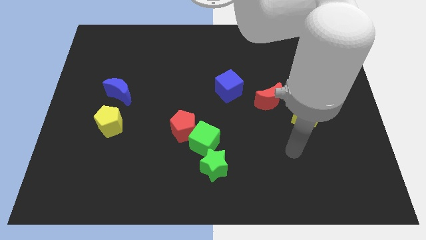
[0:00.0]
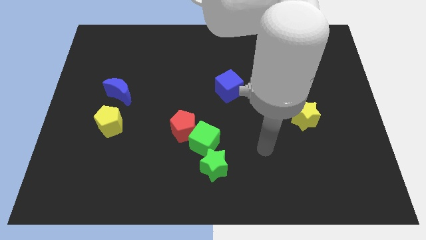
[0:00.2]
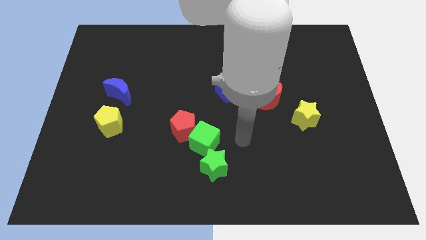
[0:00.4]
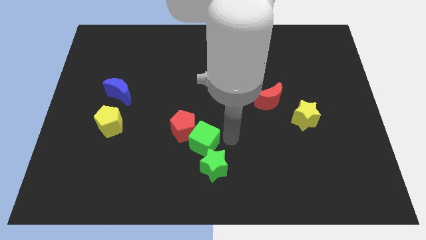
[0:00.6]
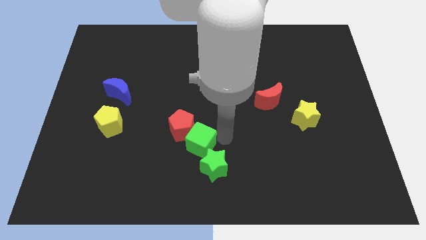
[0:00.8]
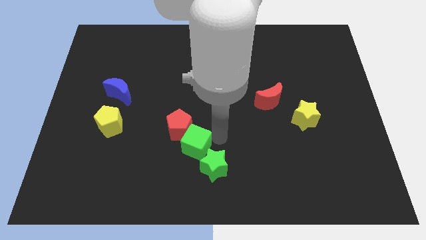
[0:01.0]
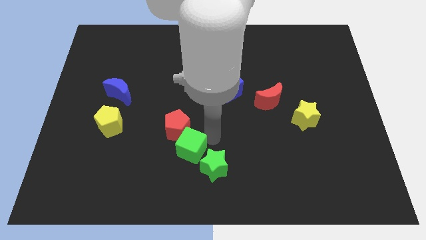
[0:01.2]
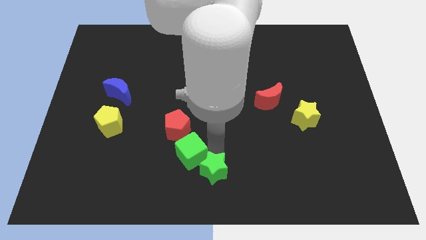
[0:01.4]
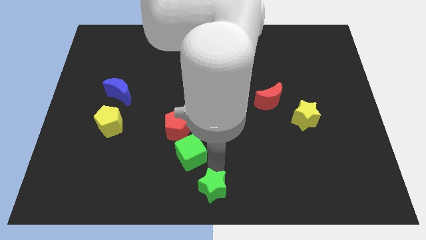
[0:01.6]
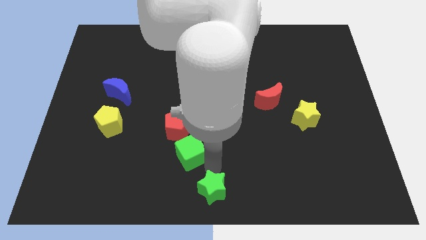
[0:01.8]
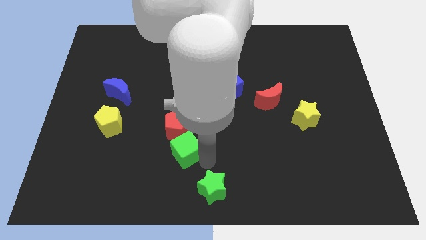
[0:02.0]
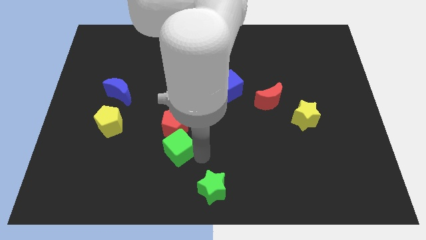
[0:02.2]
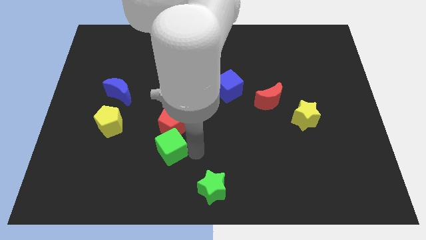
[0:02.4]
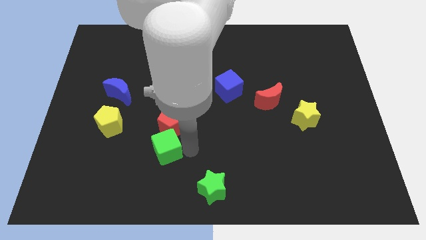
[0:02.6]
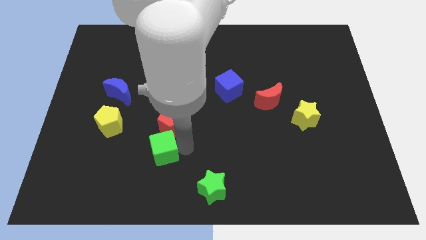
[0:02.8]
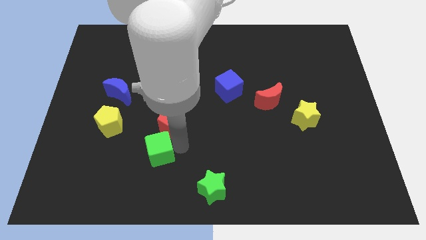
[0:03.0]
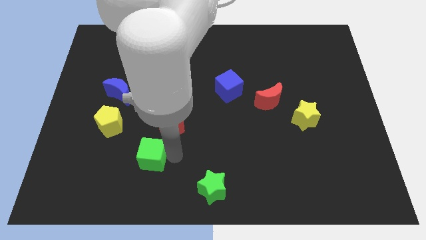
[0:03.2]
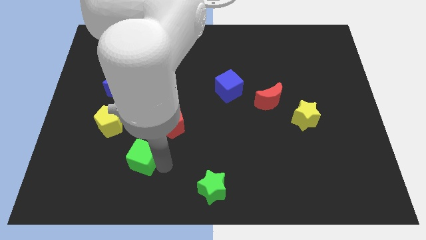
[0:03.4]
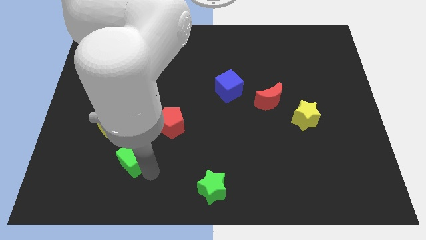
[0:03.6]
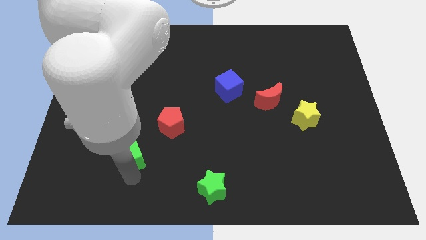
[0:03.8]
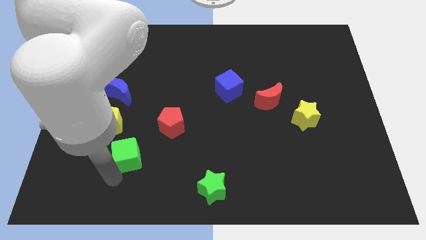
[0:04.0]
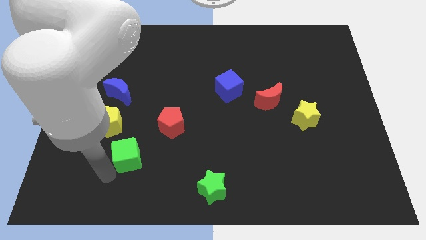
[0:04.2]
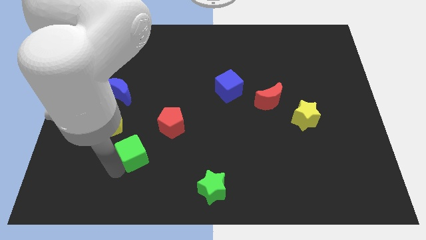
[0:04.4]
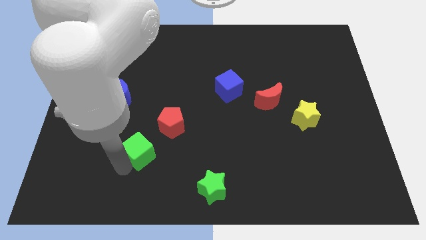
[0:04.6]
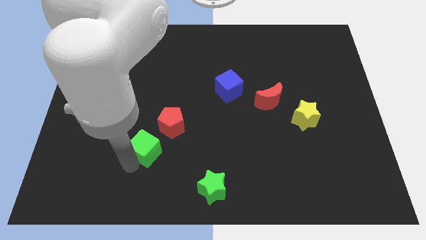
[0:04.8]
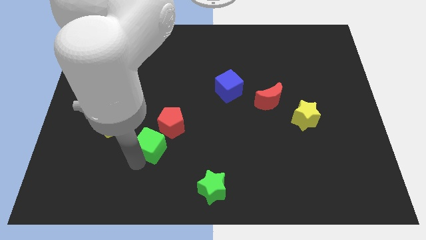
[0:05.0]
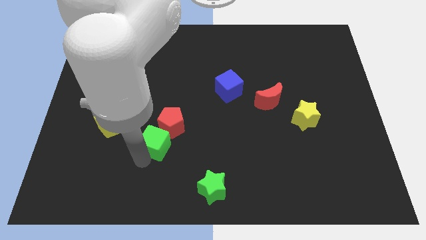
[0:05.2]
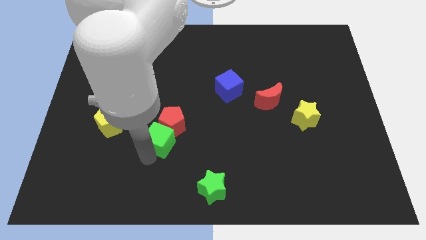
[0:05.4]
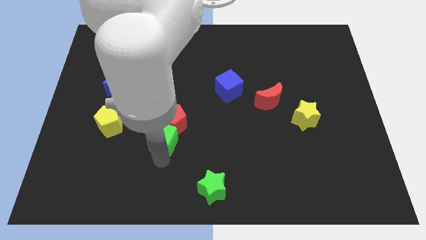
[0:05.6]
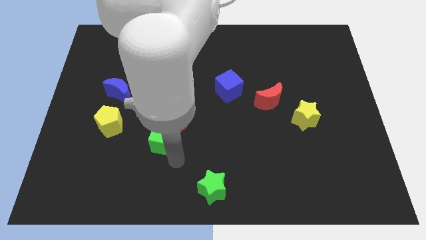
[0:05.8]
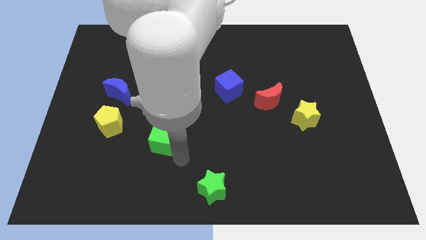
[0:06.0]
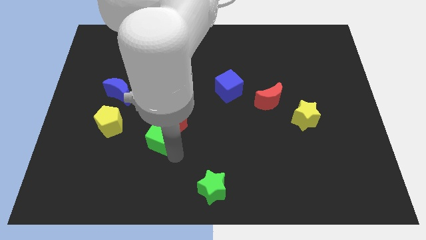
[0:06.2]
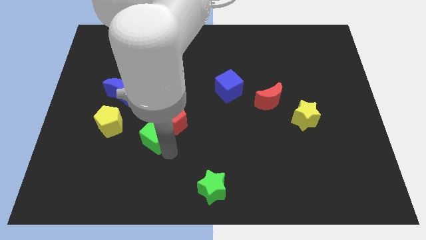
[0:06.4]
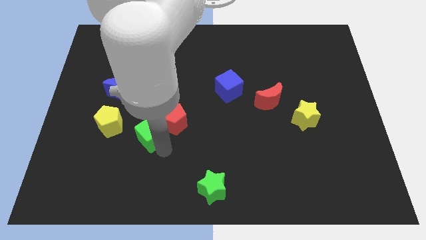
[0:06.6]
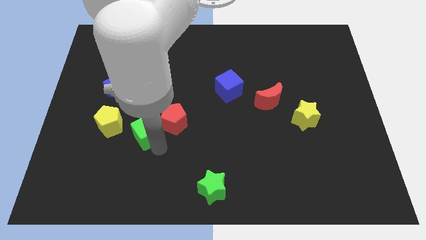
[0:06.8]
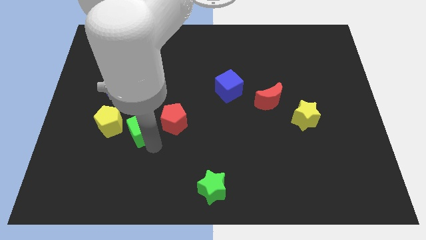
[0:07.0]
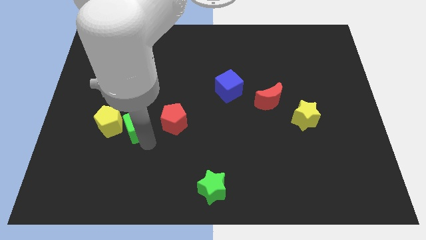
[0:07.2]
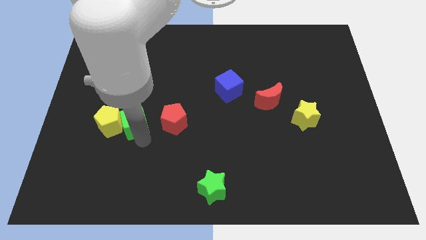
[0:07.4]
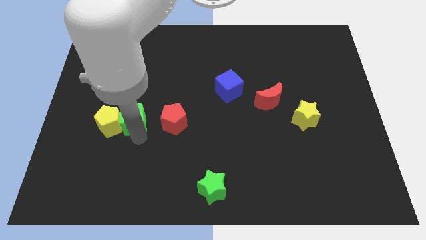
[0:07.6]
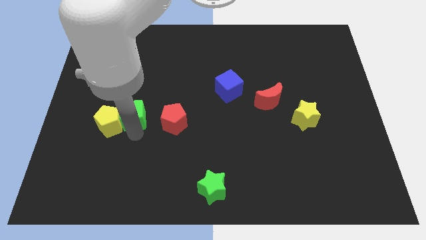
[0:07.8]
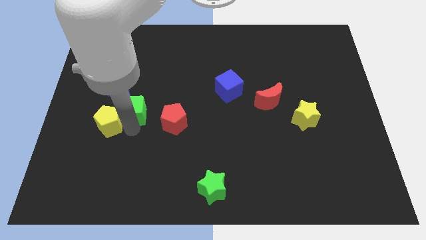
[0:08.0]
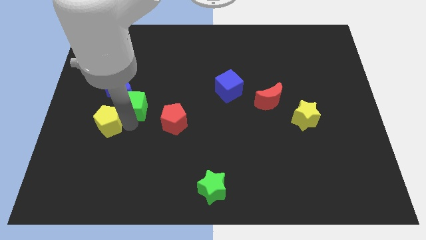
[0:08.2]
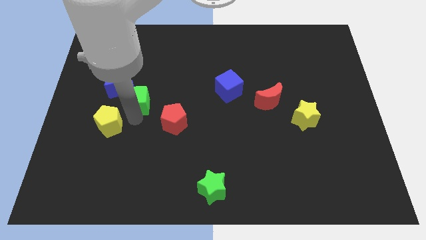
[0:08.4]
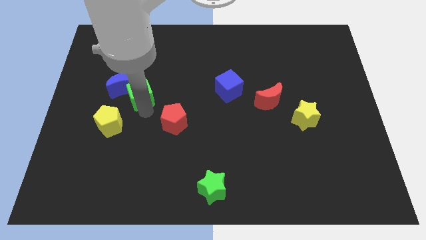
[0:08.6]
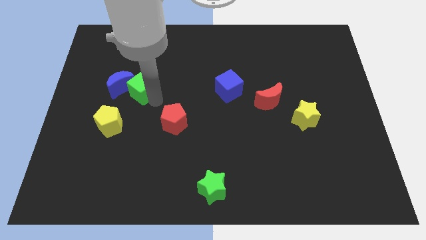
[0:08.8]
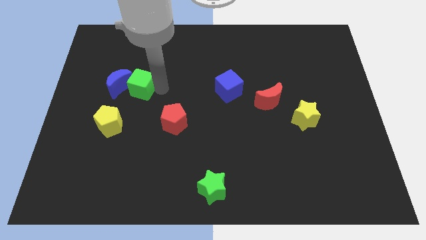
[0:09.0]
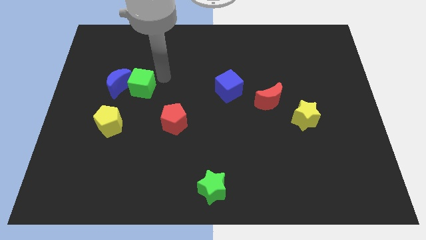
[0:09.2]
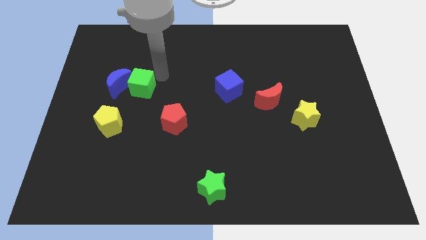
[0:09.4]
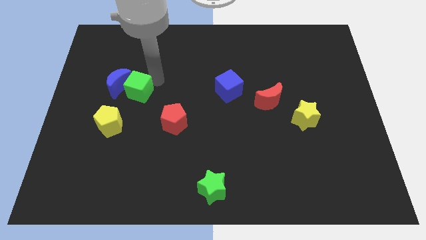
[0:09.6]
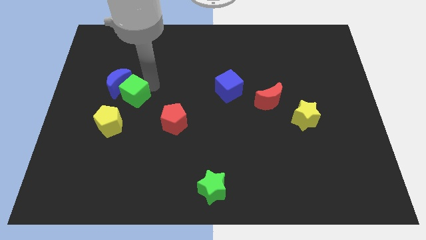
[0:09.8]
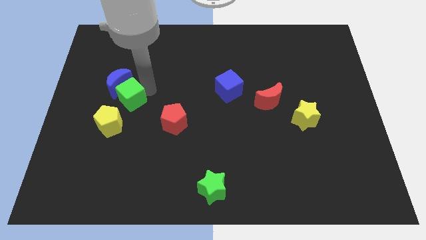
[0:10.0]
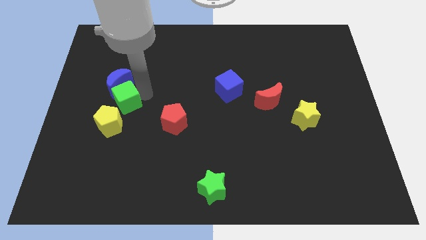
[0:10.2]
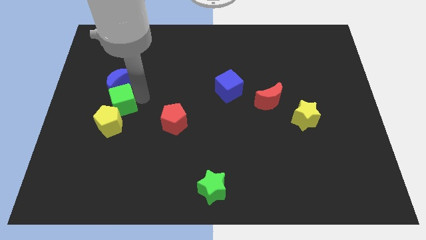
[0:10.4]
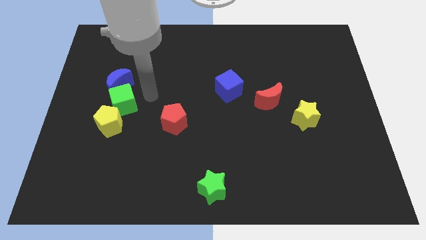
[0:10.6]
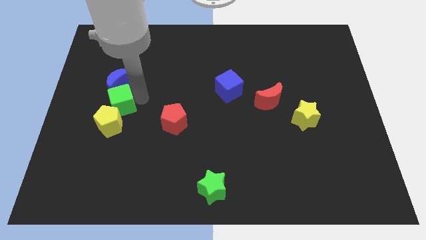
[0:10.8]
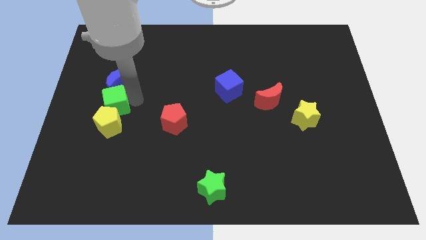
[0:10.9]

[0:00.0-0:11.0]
move the green cube to the top left side of the yellow pentagon

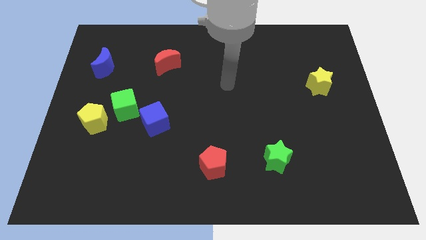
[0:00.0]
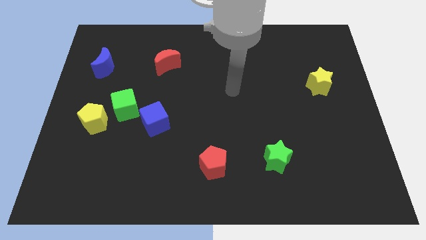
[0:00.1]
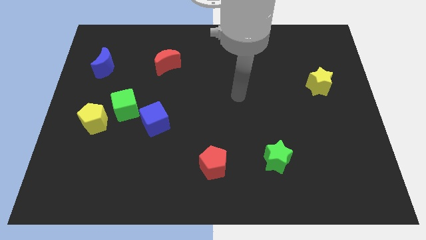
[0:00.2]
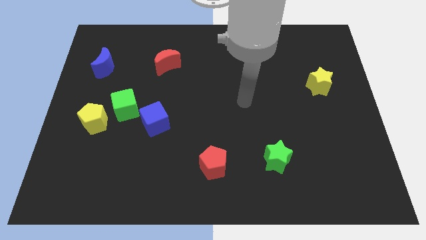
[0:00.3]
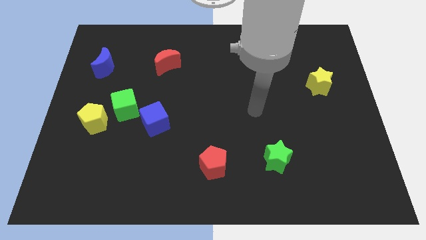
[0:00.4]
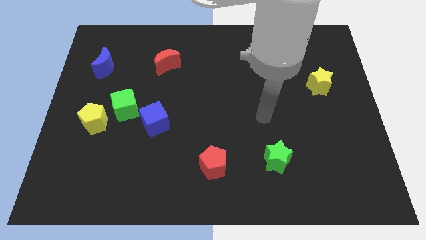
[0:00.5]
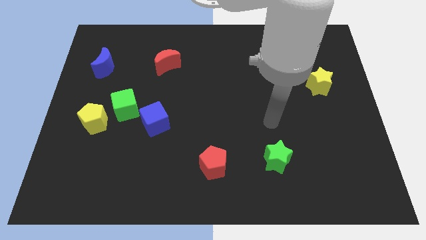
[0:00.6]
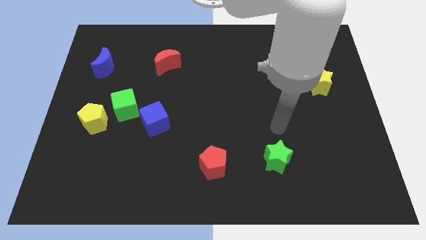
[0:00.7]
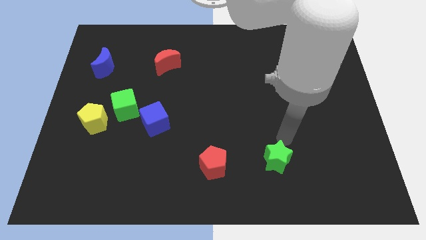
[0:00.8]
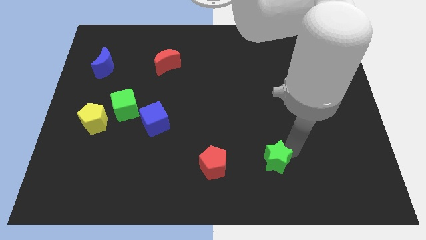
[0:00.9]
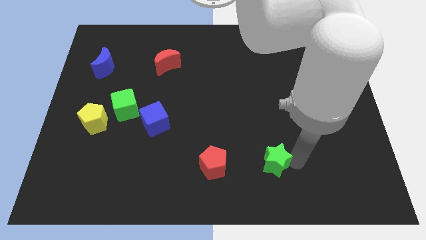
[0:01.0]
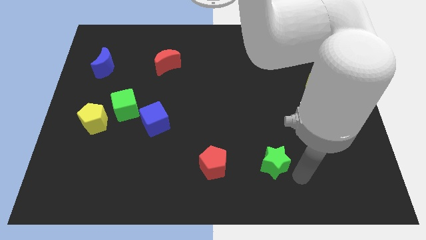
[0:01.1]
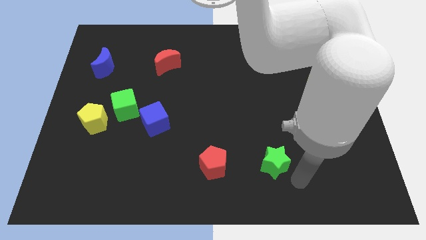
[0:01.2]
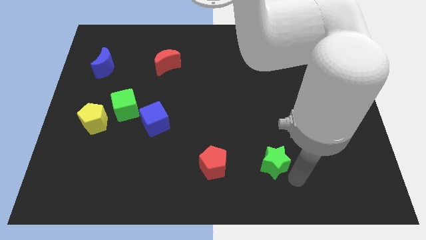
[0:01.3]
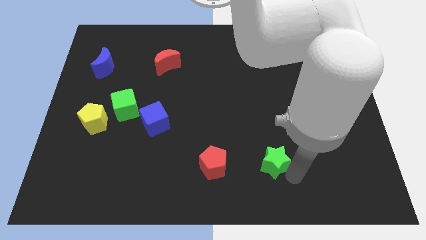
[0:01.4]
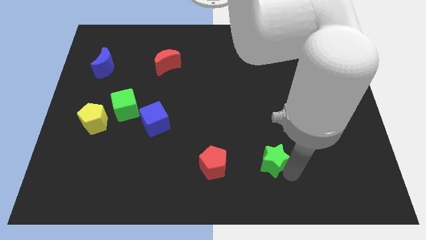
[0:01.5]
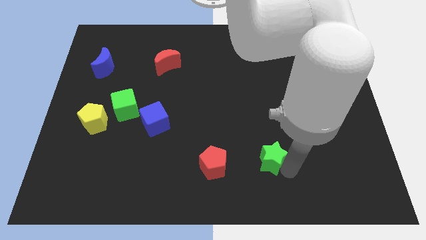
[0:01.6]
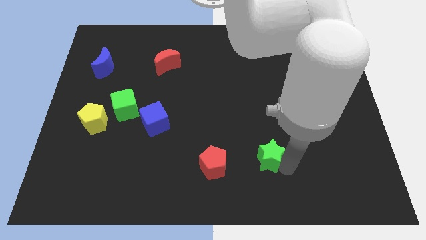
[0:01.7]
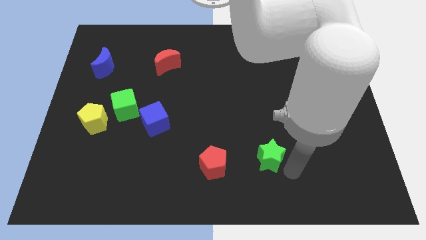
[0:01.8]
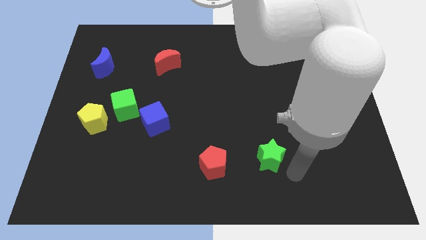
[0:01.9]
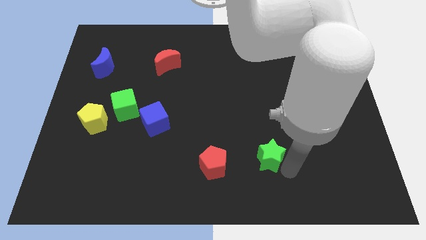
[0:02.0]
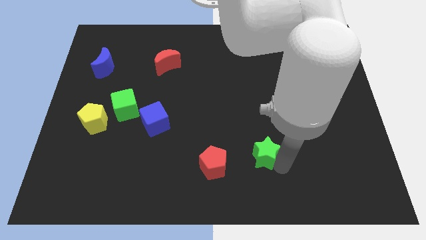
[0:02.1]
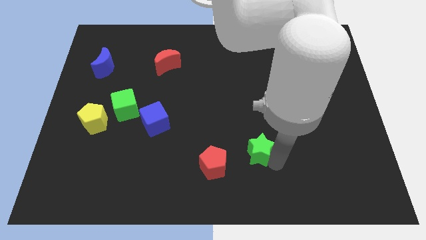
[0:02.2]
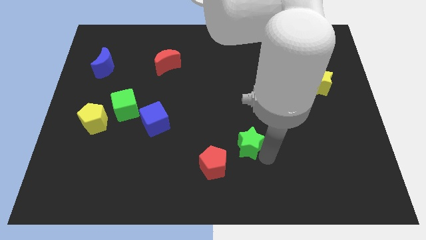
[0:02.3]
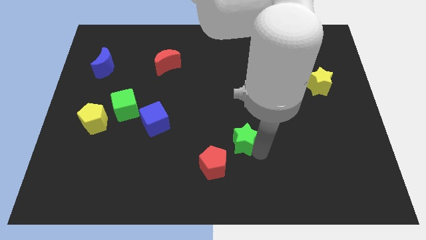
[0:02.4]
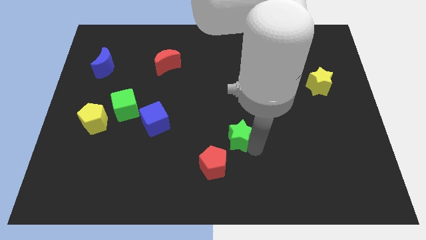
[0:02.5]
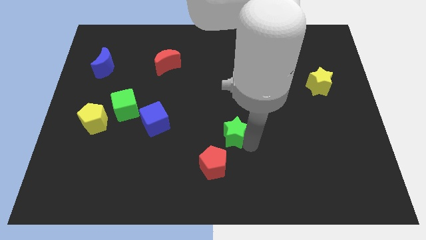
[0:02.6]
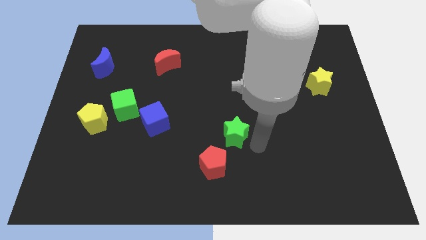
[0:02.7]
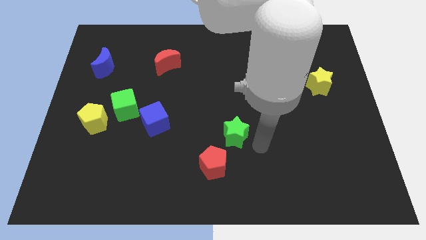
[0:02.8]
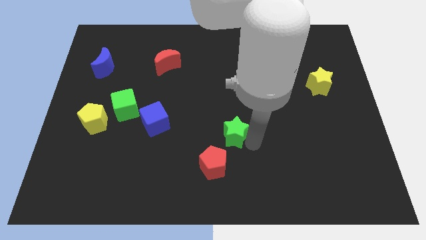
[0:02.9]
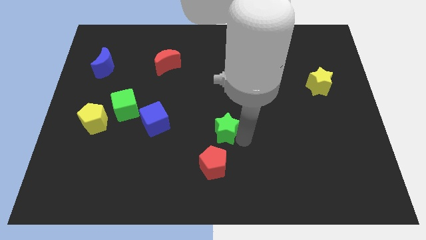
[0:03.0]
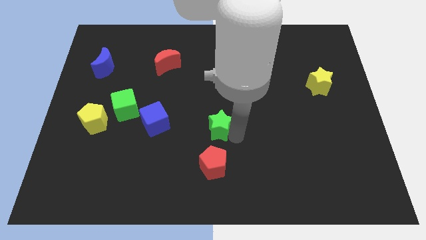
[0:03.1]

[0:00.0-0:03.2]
move the green star right of the blue cube
